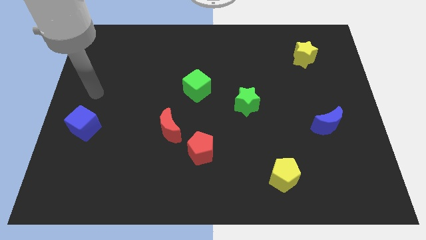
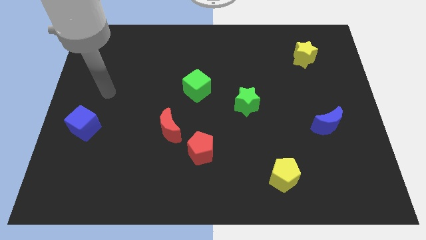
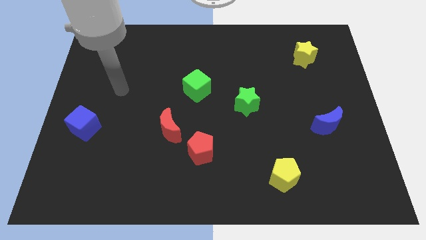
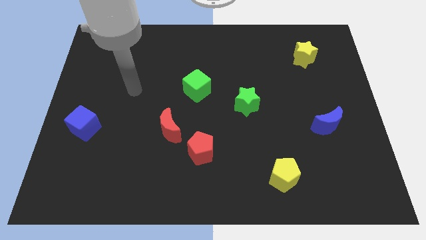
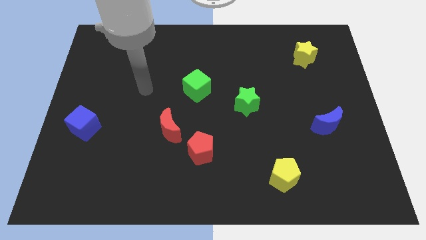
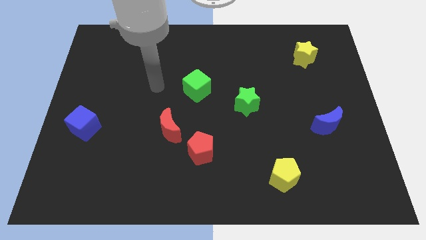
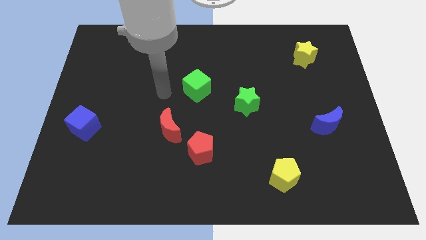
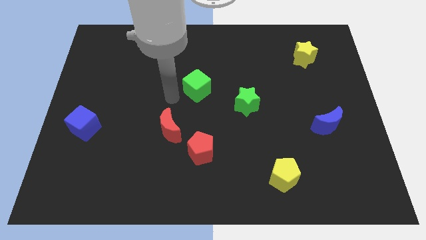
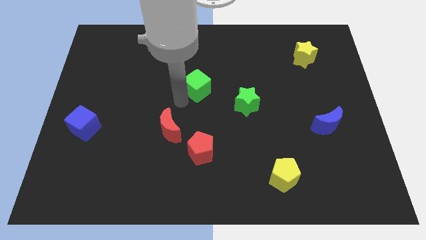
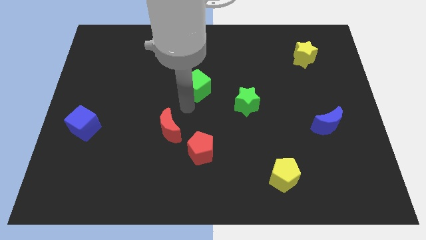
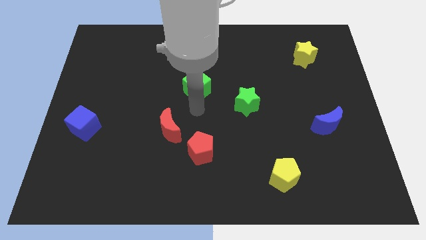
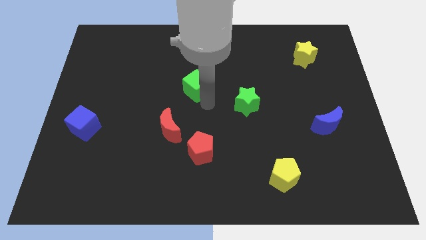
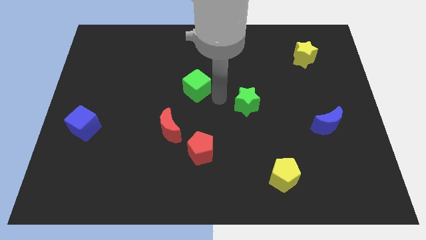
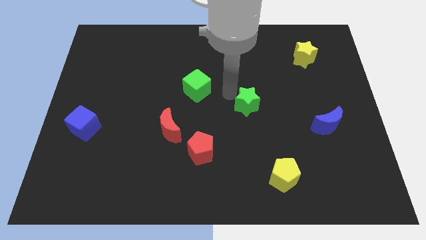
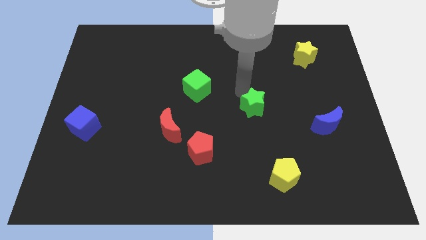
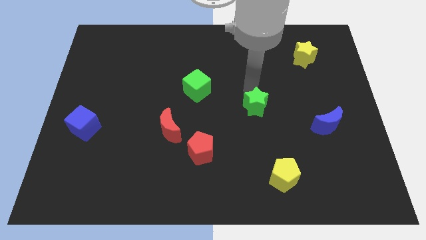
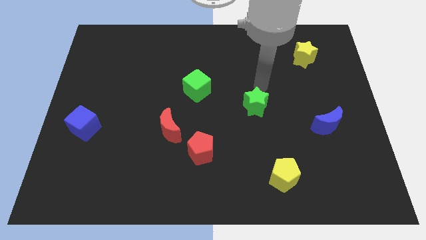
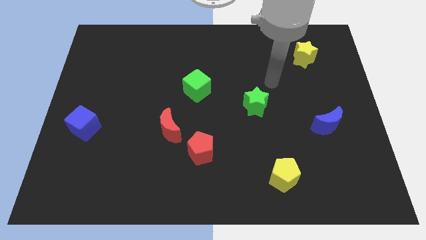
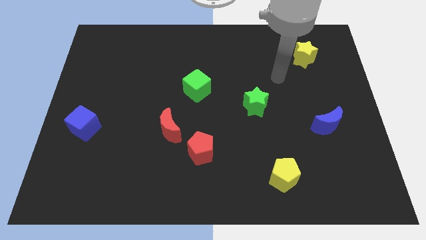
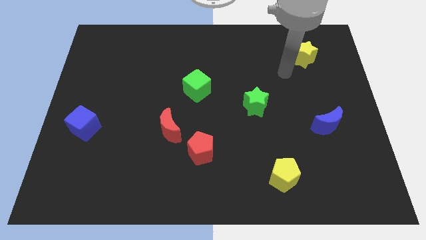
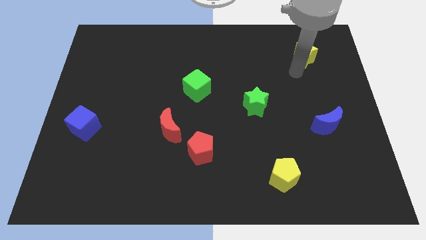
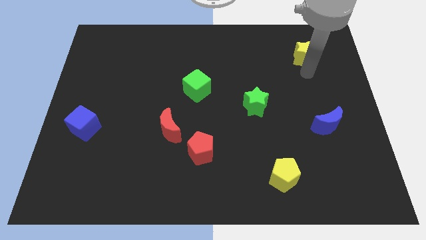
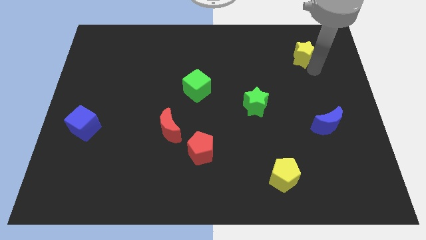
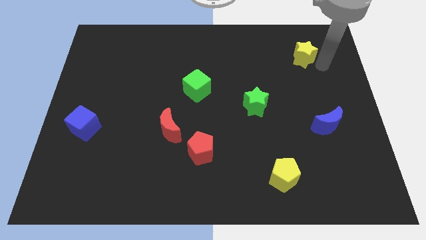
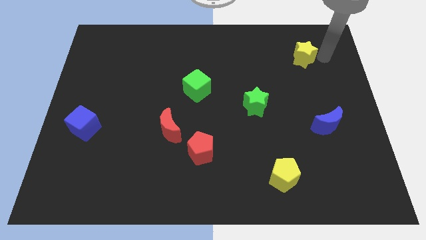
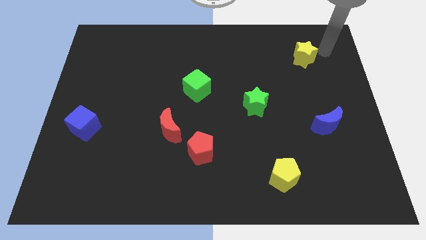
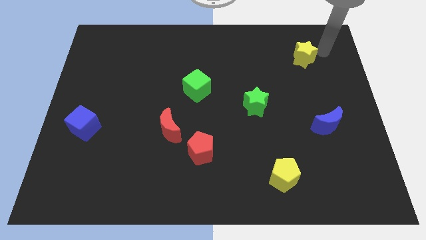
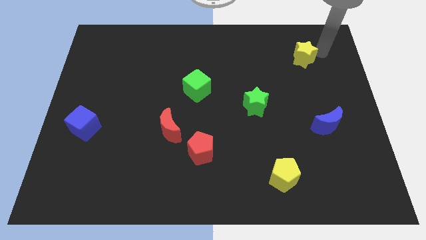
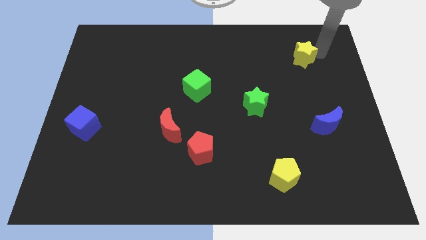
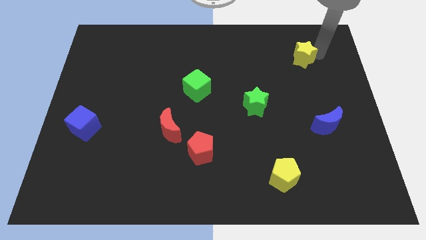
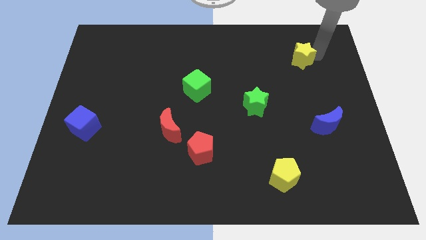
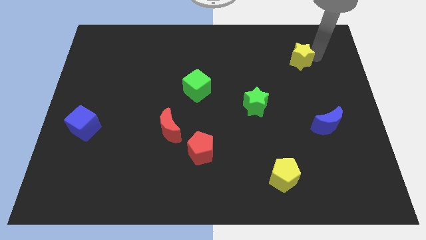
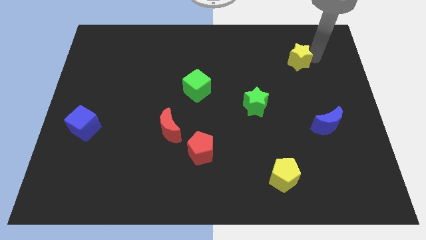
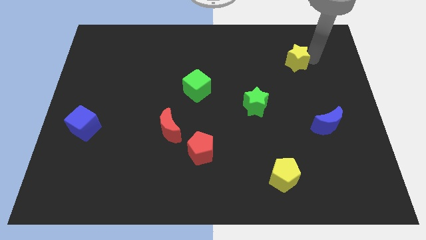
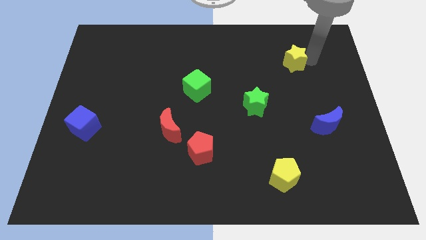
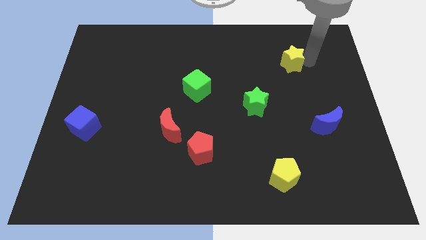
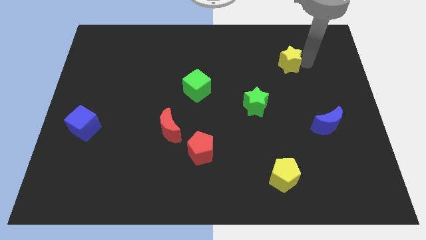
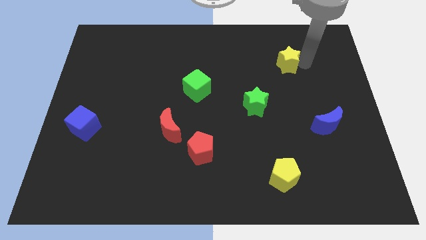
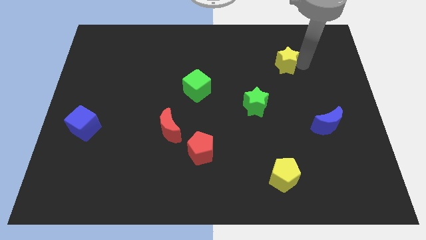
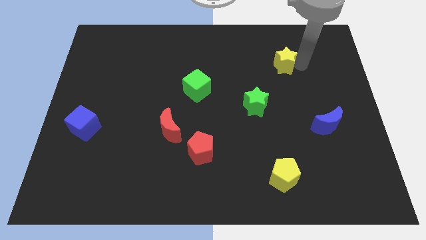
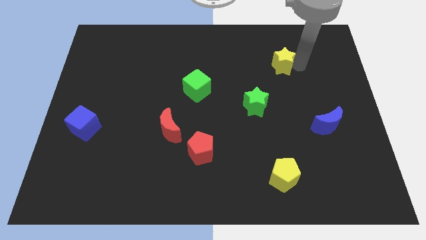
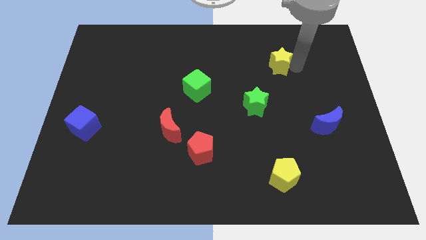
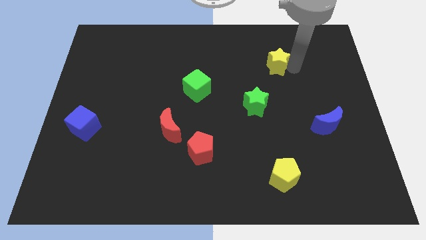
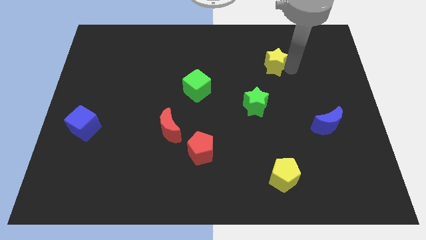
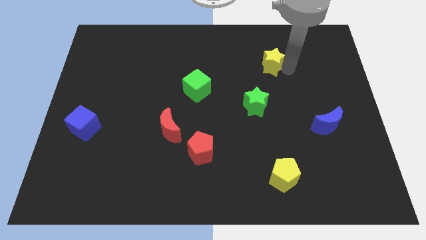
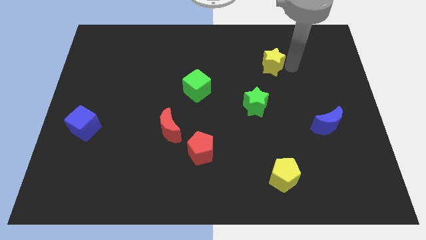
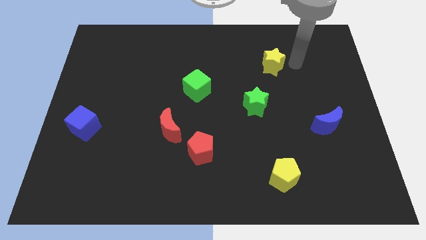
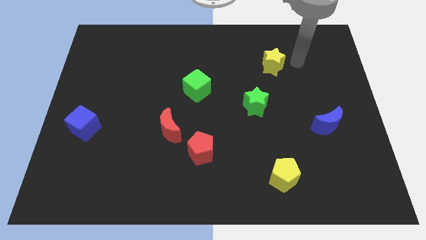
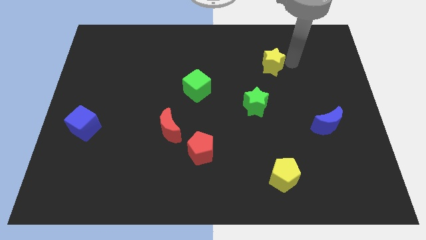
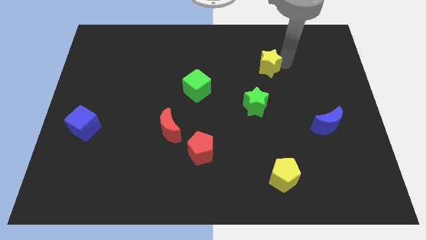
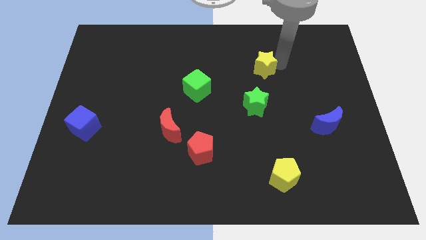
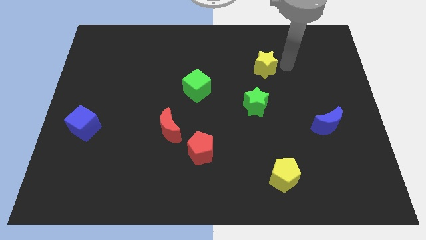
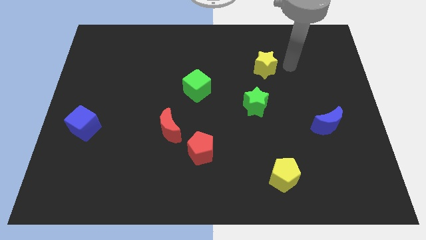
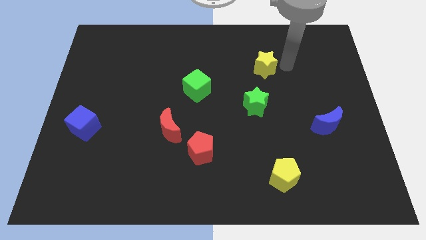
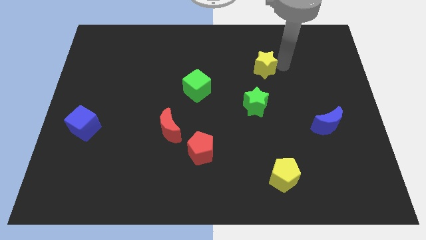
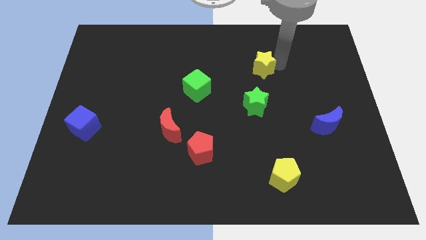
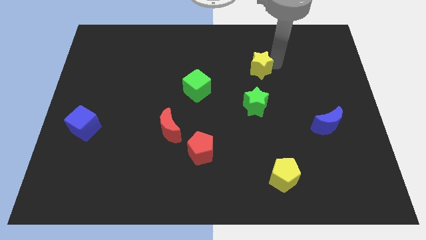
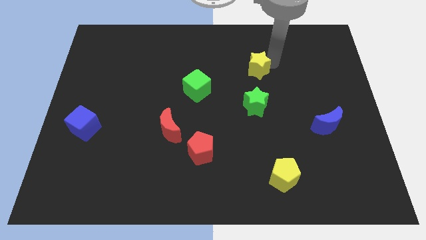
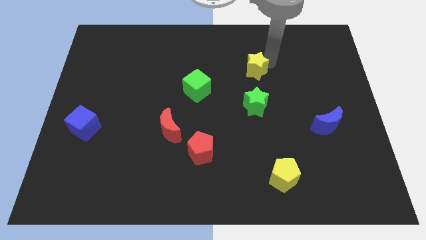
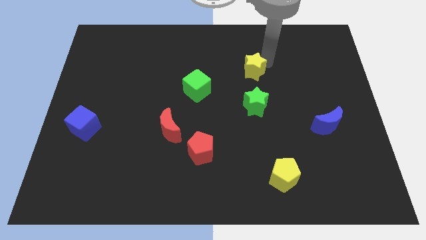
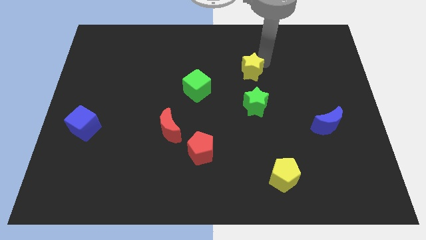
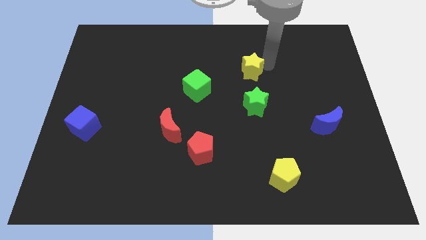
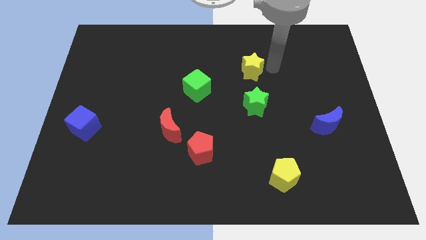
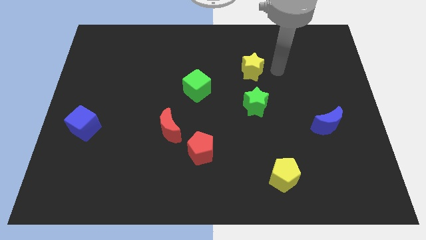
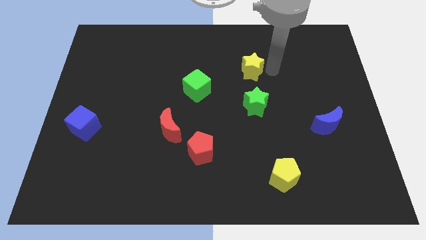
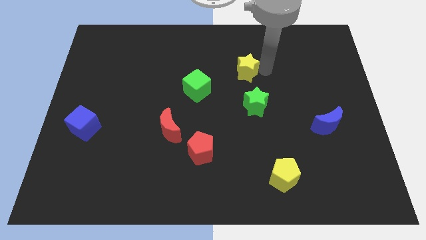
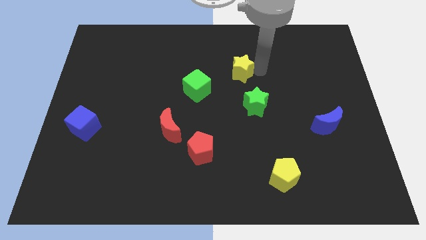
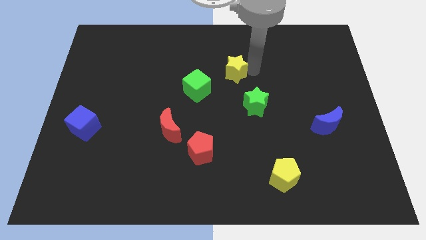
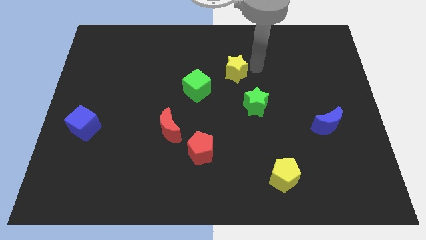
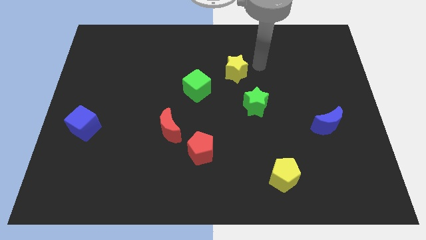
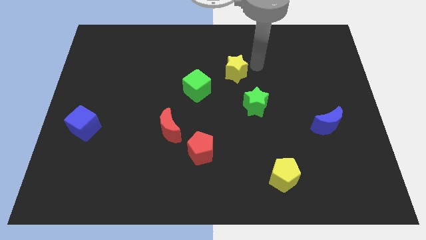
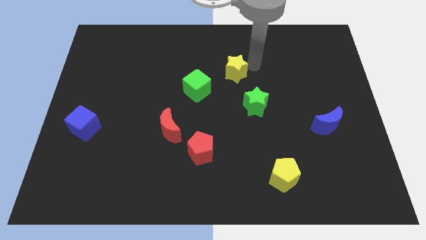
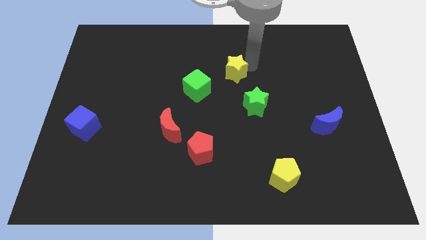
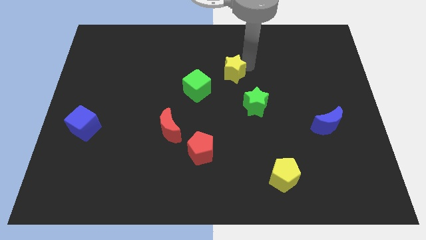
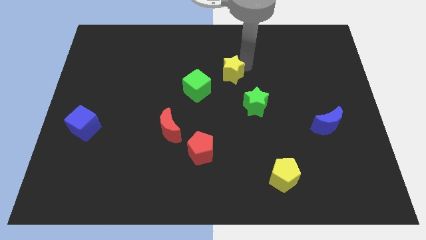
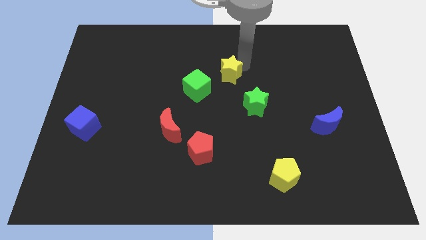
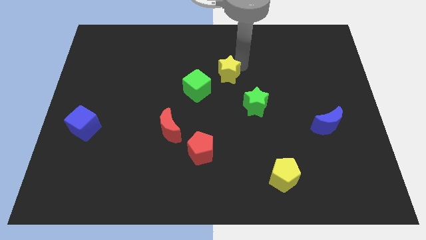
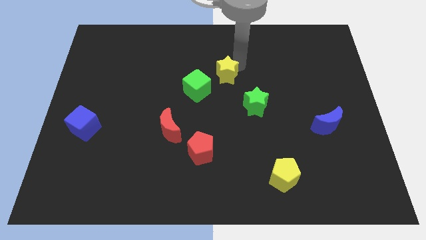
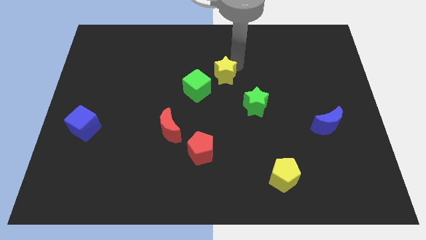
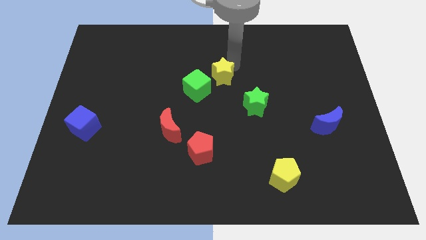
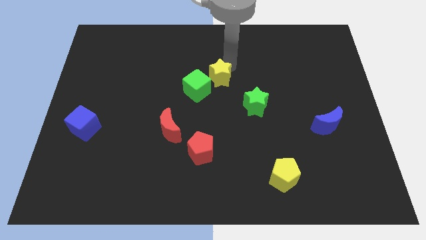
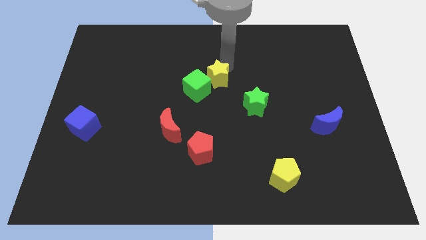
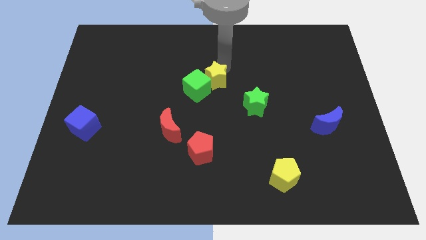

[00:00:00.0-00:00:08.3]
put the yellow star towards the green cube
